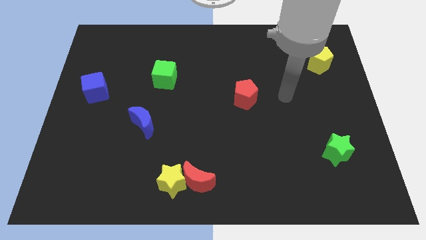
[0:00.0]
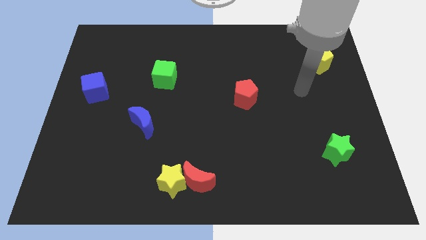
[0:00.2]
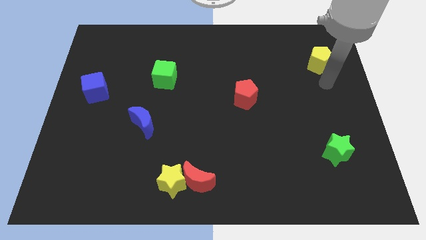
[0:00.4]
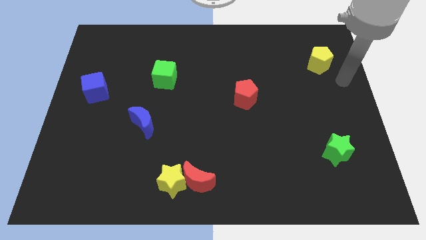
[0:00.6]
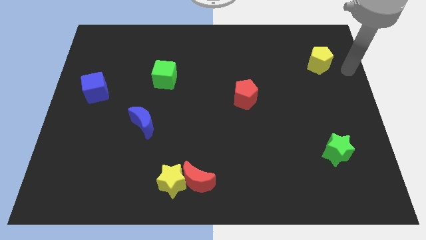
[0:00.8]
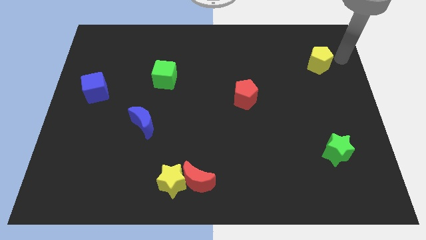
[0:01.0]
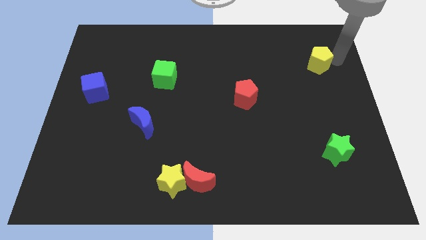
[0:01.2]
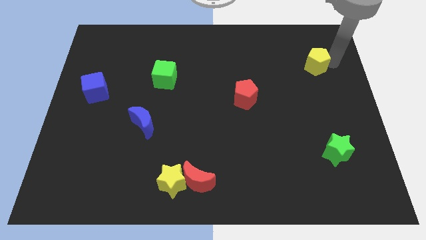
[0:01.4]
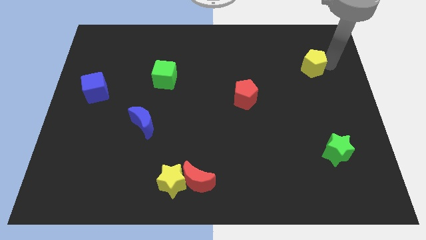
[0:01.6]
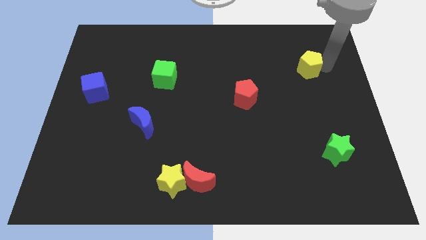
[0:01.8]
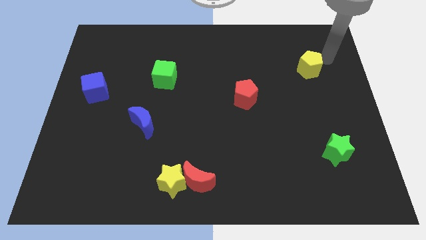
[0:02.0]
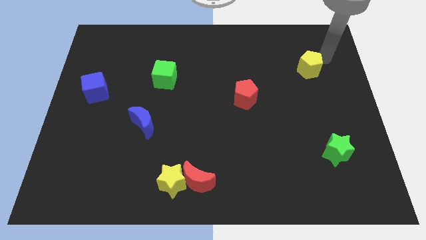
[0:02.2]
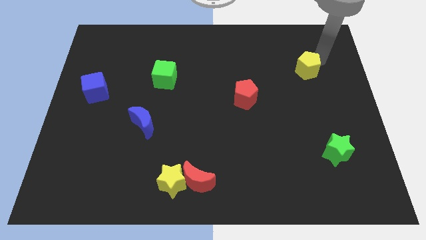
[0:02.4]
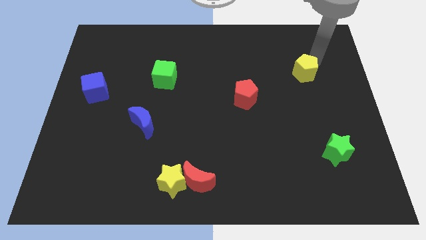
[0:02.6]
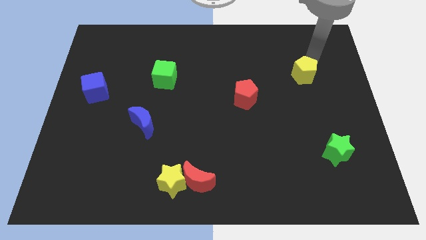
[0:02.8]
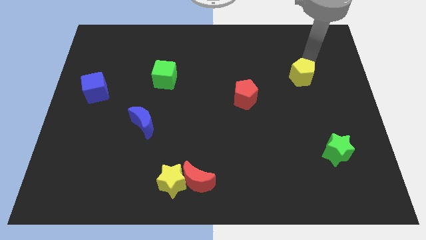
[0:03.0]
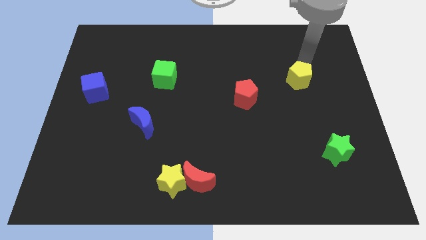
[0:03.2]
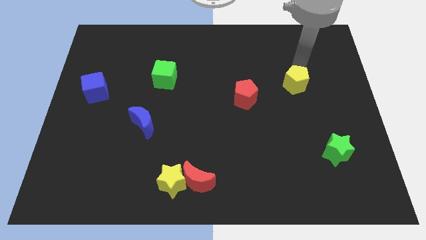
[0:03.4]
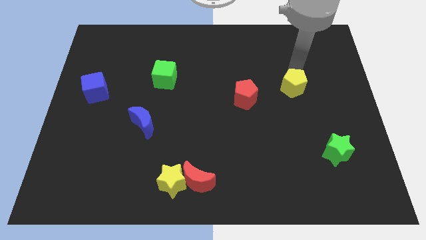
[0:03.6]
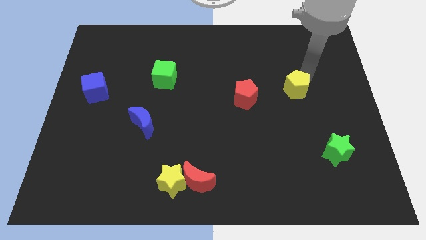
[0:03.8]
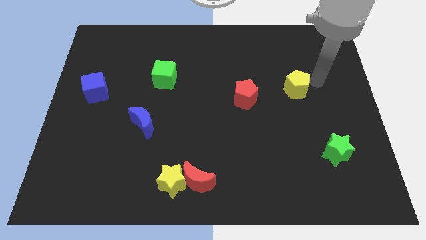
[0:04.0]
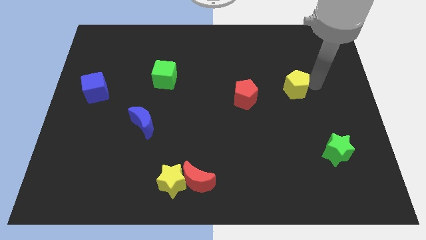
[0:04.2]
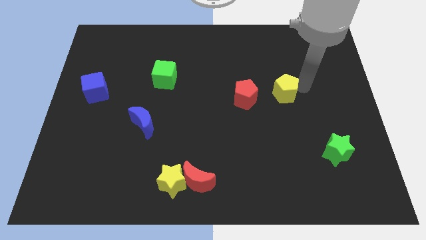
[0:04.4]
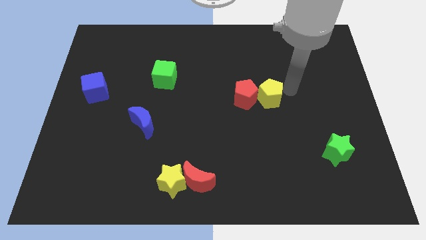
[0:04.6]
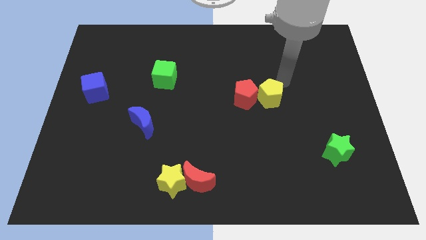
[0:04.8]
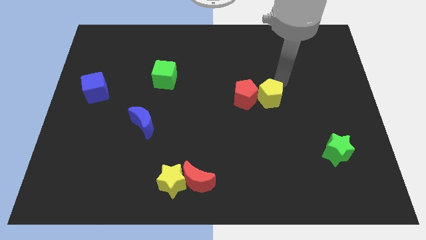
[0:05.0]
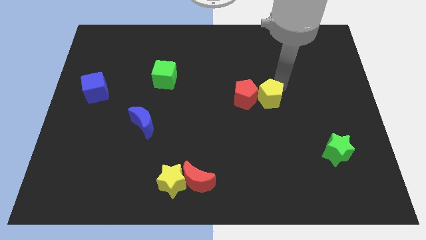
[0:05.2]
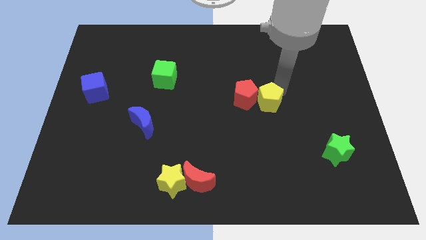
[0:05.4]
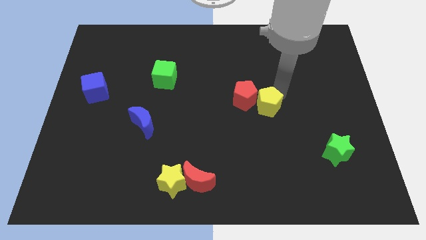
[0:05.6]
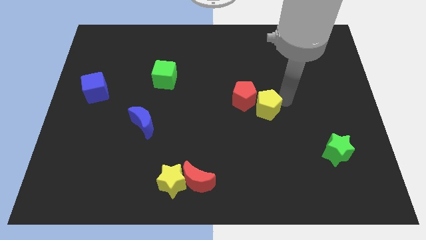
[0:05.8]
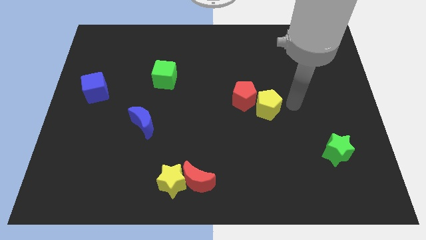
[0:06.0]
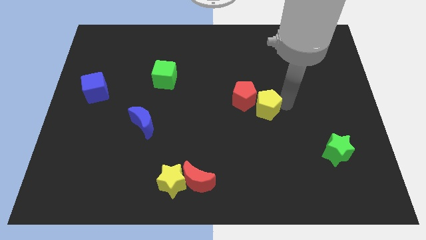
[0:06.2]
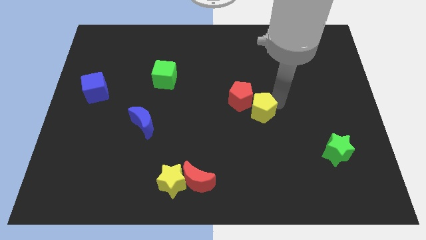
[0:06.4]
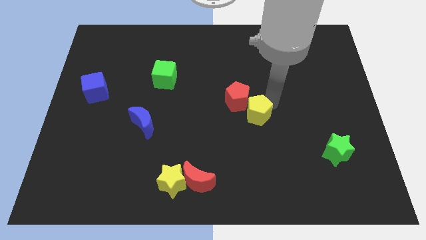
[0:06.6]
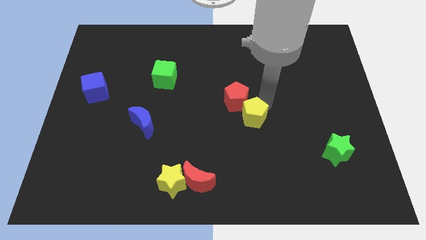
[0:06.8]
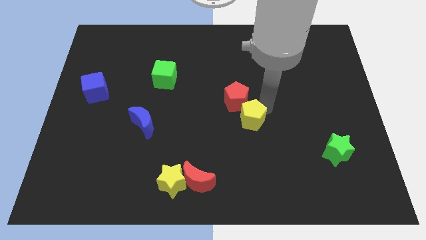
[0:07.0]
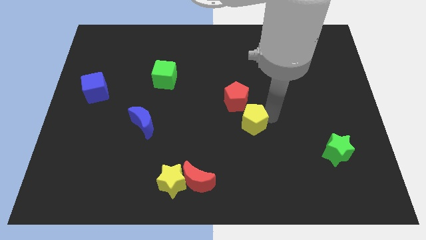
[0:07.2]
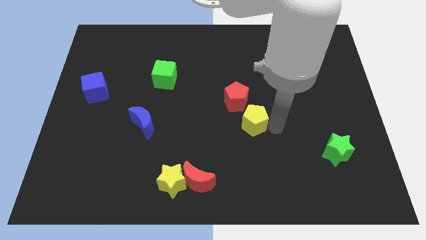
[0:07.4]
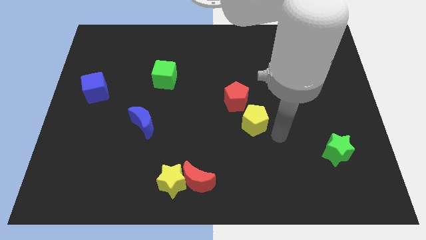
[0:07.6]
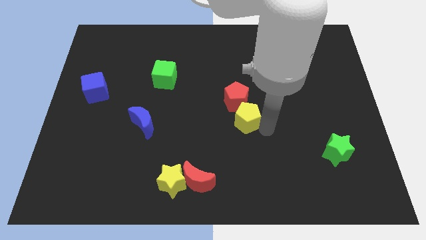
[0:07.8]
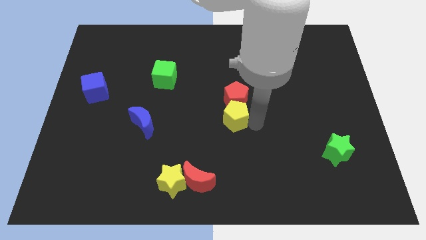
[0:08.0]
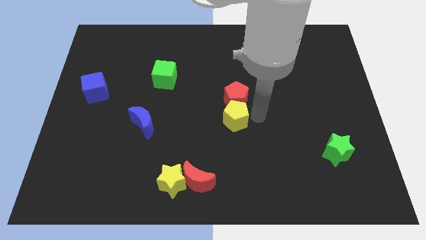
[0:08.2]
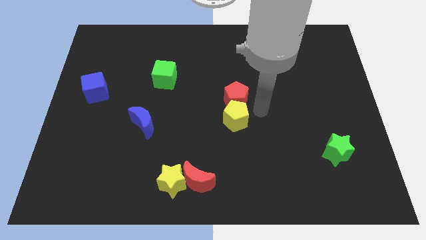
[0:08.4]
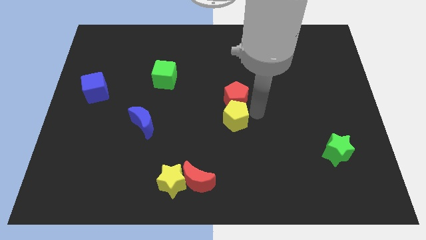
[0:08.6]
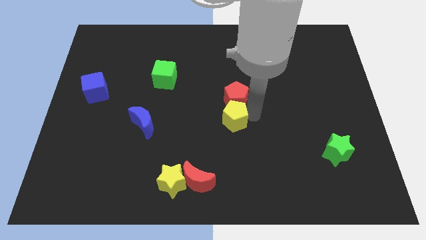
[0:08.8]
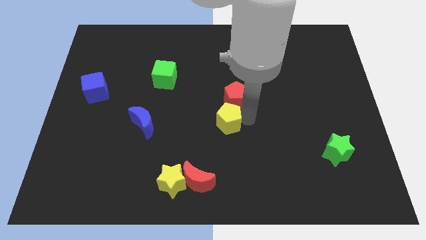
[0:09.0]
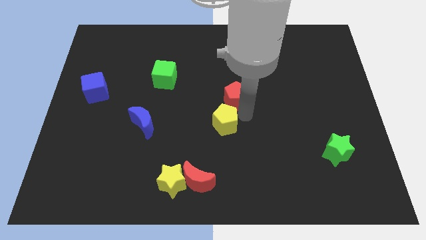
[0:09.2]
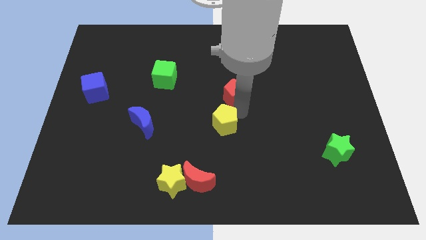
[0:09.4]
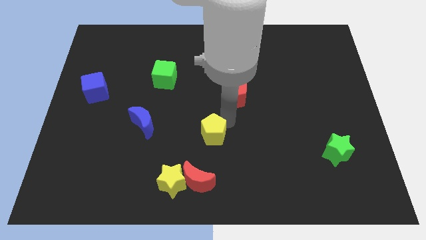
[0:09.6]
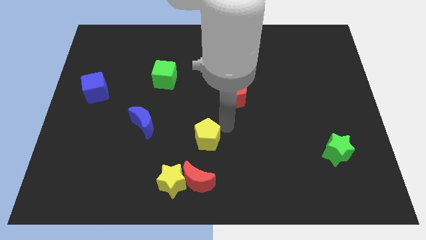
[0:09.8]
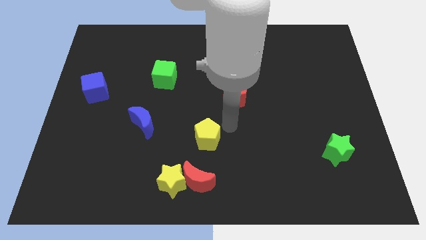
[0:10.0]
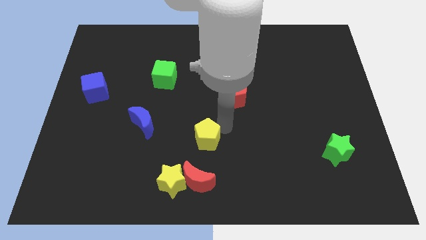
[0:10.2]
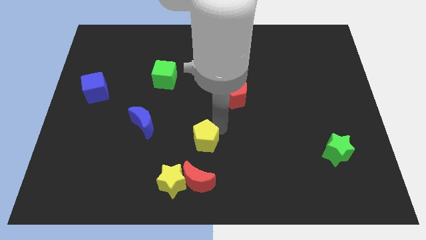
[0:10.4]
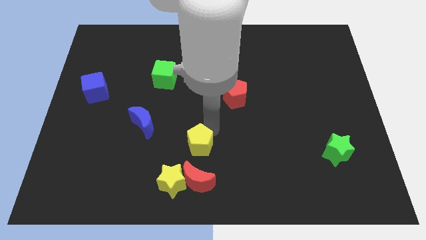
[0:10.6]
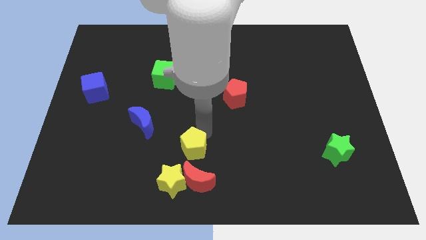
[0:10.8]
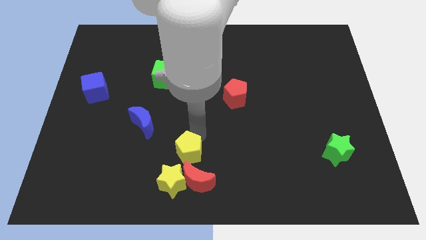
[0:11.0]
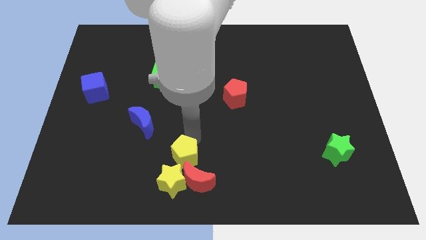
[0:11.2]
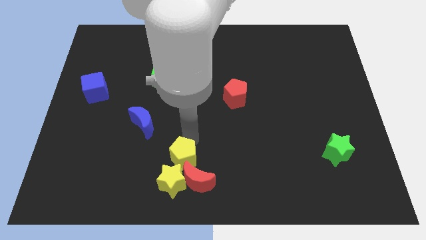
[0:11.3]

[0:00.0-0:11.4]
slide the yellow pentagon close to the yellow star

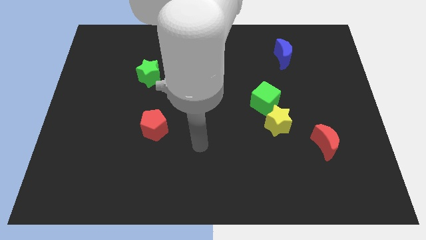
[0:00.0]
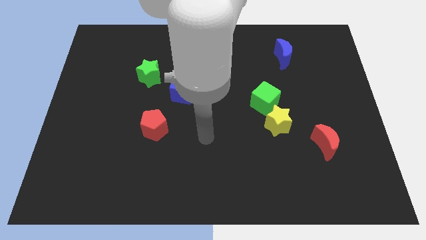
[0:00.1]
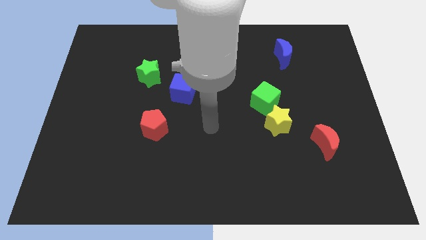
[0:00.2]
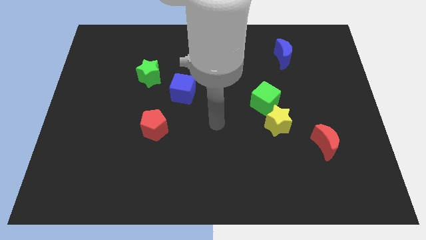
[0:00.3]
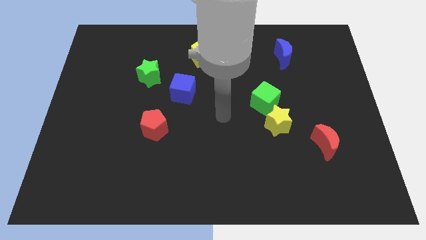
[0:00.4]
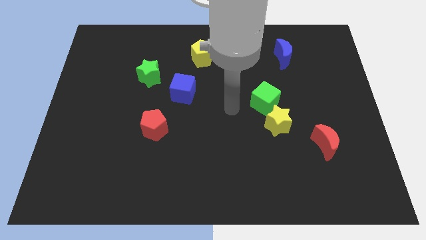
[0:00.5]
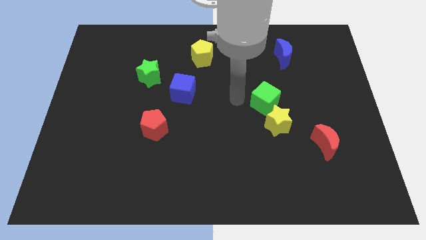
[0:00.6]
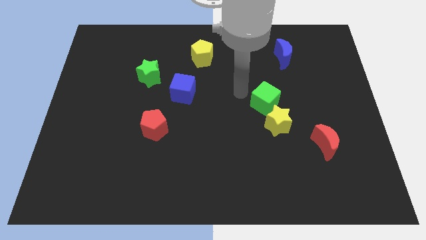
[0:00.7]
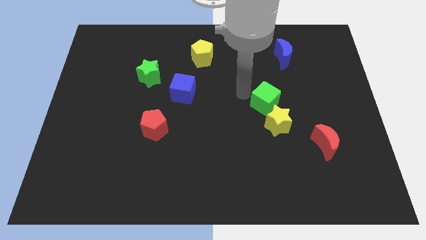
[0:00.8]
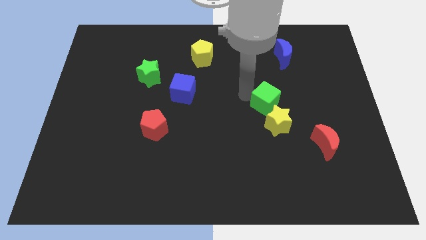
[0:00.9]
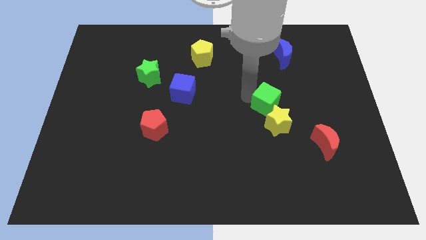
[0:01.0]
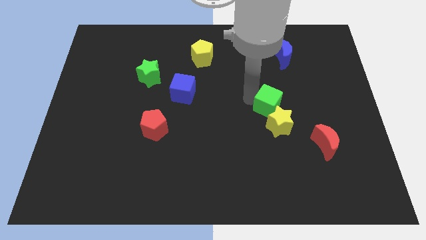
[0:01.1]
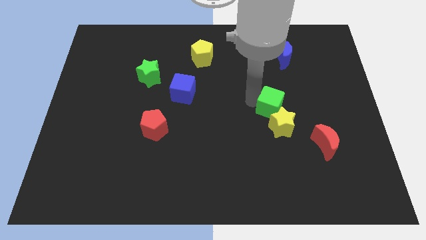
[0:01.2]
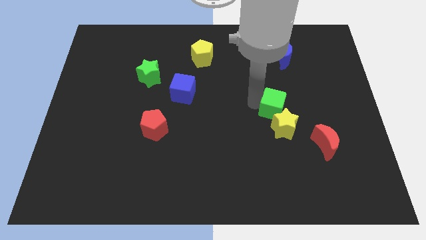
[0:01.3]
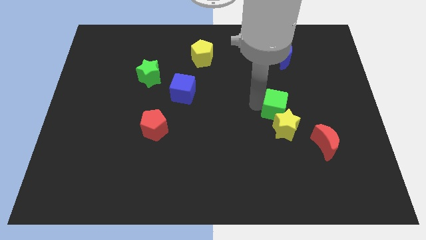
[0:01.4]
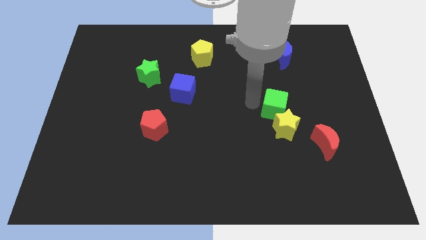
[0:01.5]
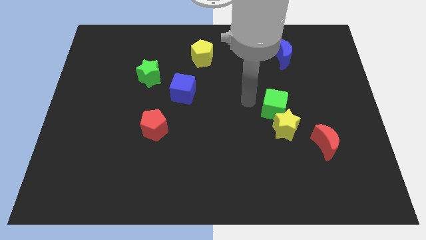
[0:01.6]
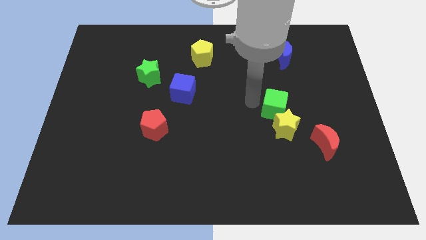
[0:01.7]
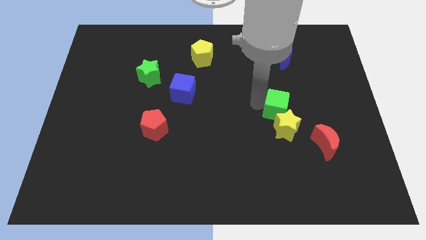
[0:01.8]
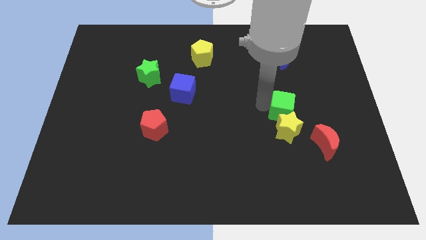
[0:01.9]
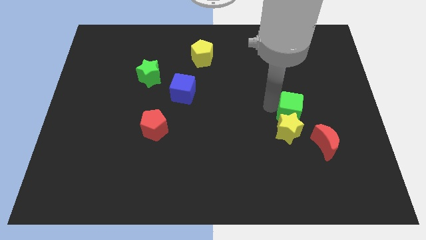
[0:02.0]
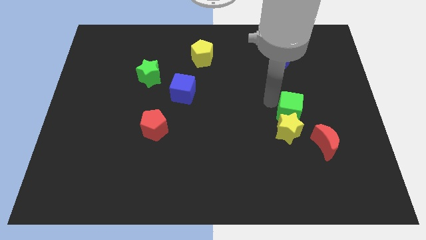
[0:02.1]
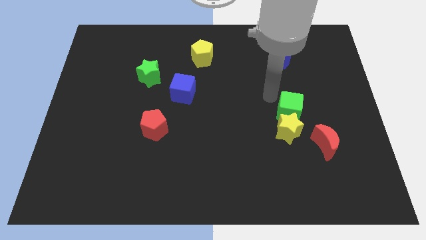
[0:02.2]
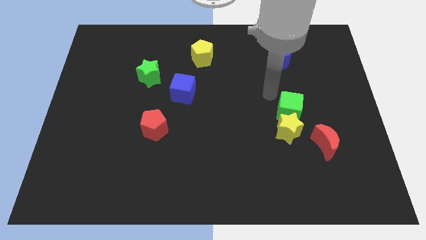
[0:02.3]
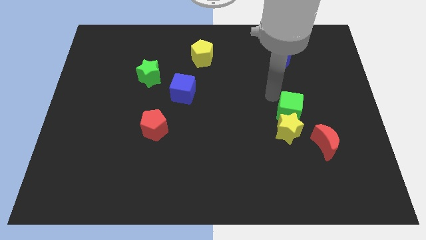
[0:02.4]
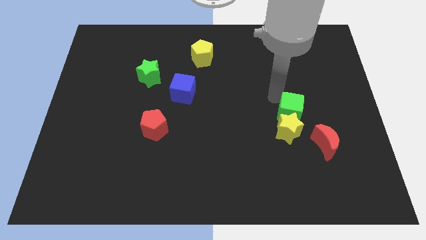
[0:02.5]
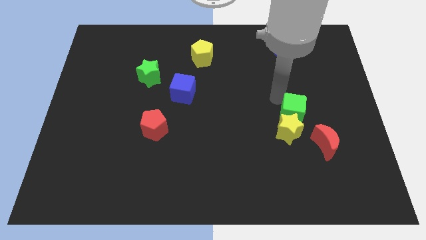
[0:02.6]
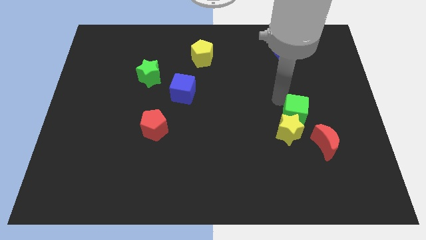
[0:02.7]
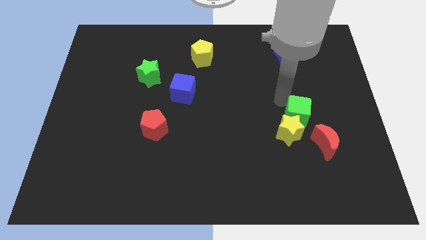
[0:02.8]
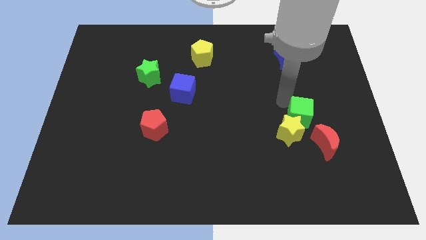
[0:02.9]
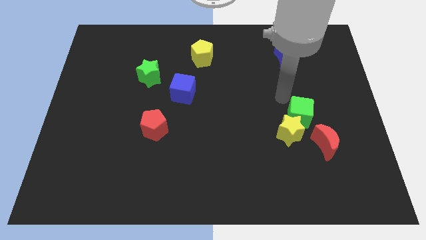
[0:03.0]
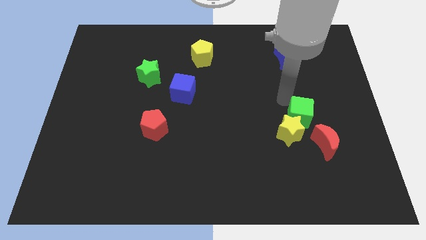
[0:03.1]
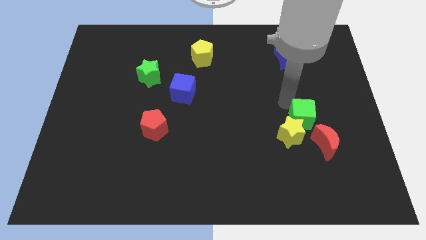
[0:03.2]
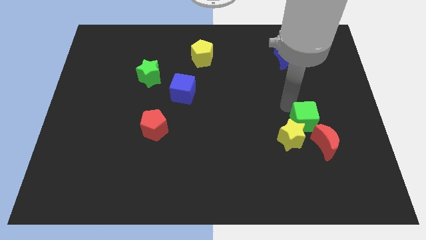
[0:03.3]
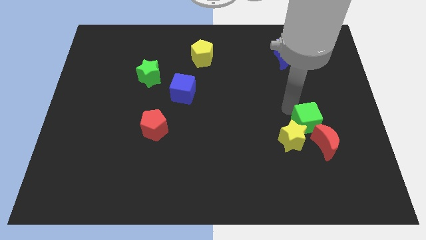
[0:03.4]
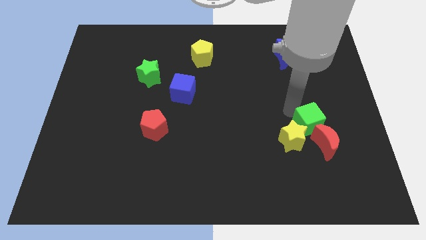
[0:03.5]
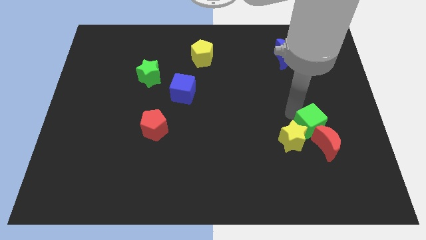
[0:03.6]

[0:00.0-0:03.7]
push the green cube close to the red moon
